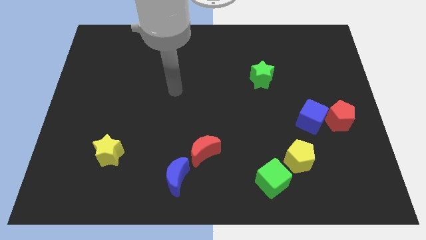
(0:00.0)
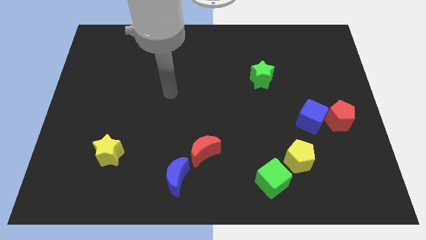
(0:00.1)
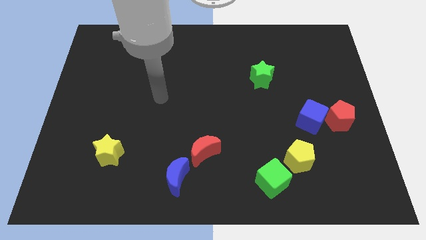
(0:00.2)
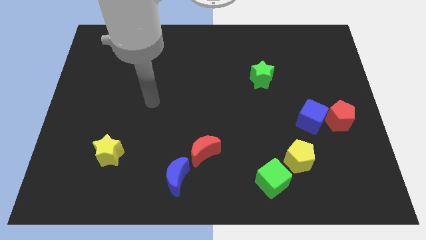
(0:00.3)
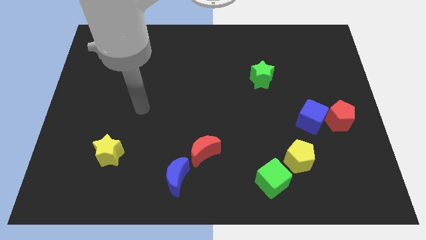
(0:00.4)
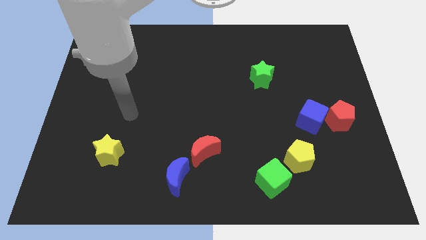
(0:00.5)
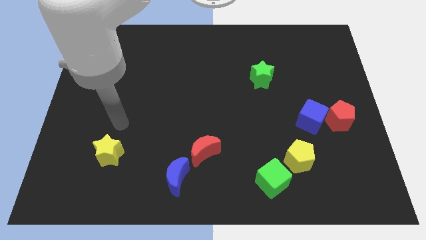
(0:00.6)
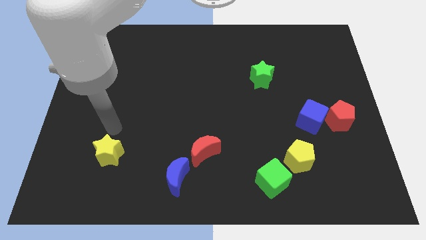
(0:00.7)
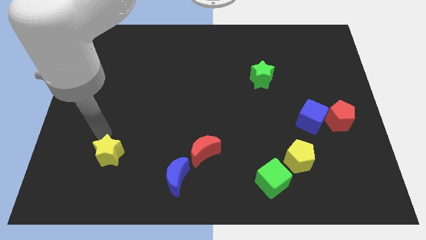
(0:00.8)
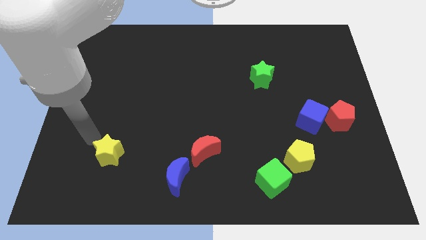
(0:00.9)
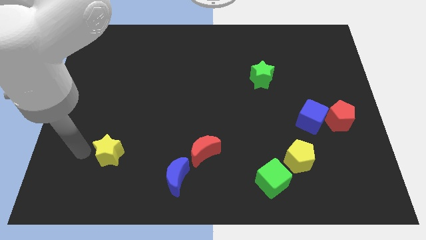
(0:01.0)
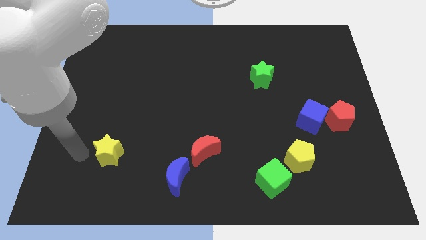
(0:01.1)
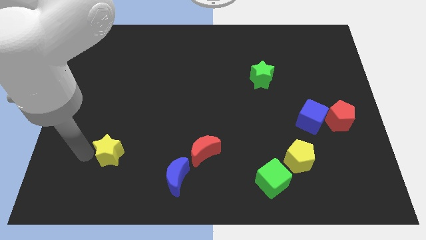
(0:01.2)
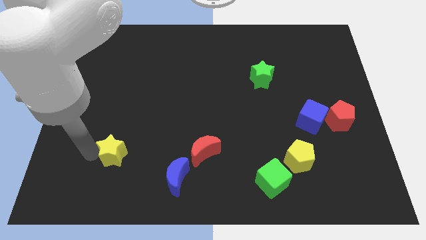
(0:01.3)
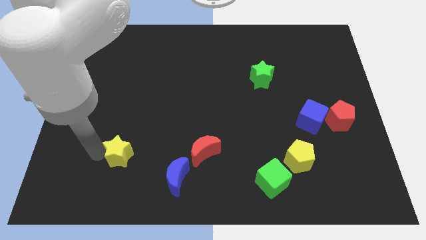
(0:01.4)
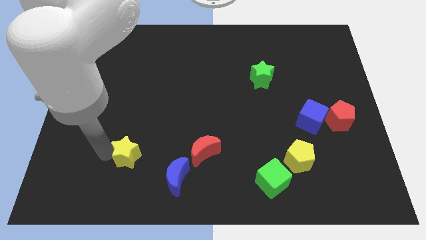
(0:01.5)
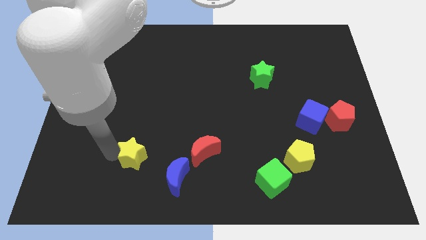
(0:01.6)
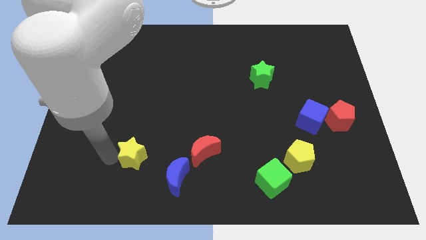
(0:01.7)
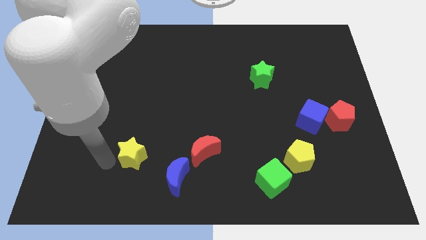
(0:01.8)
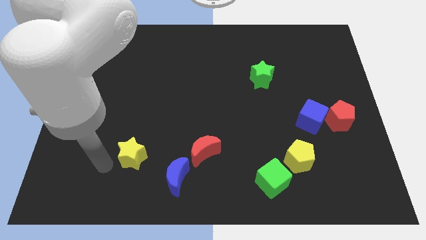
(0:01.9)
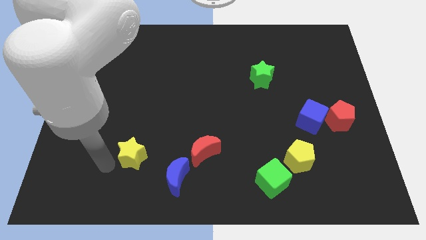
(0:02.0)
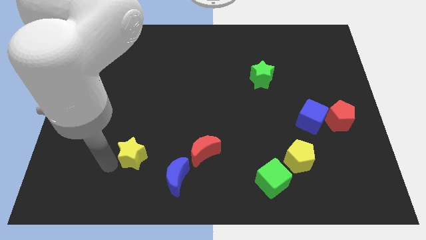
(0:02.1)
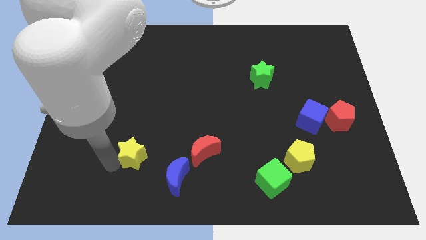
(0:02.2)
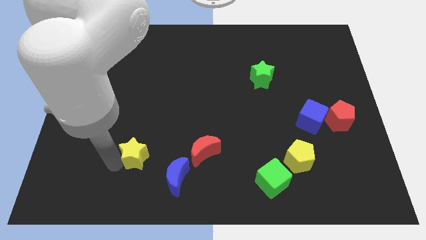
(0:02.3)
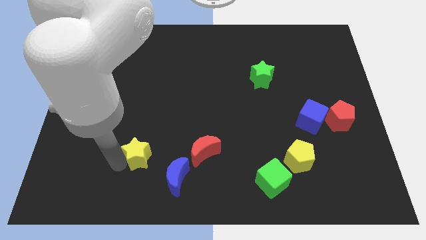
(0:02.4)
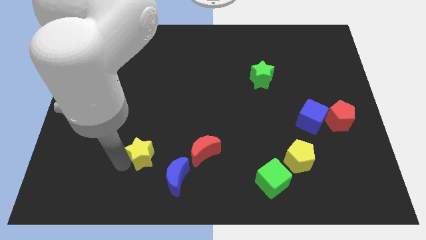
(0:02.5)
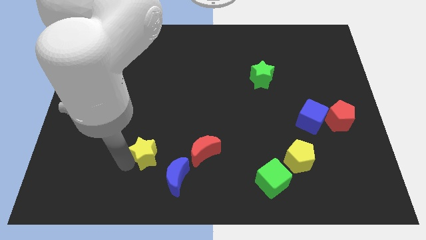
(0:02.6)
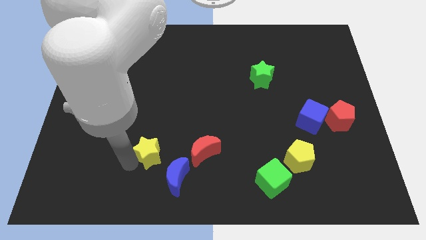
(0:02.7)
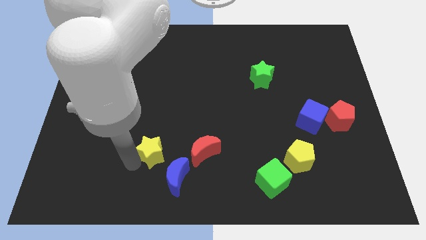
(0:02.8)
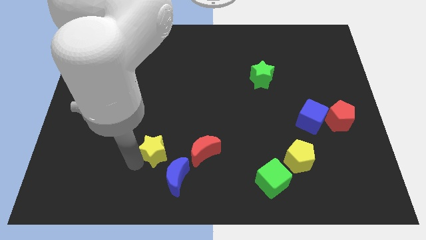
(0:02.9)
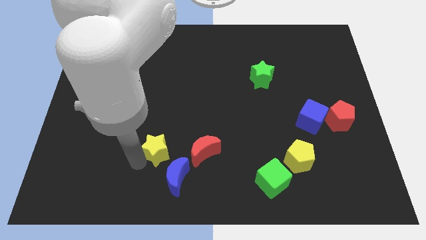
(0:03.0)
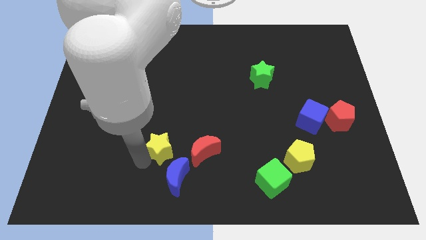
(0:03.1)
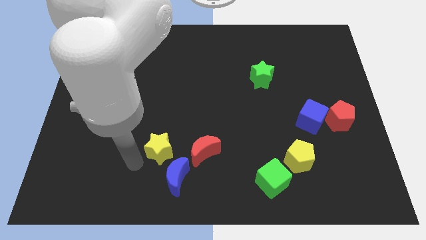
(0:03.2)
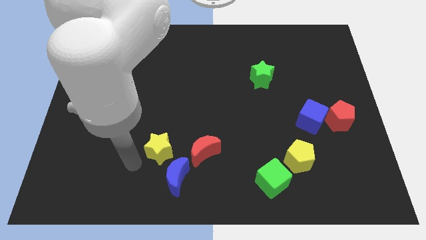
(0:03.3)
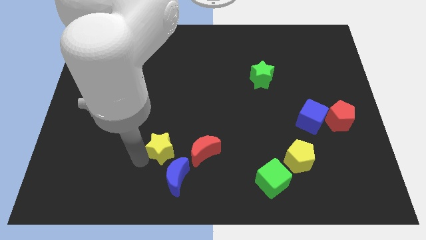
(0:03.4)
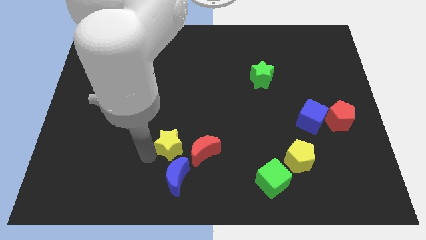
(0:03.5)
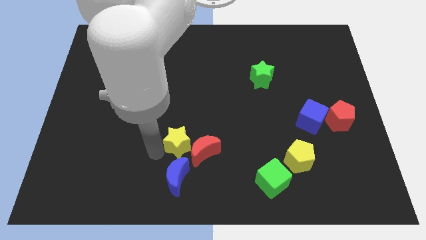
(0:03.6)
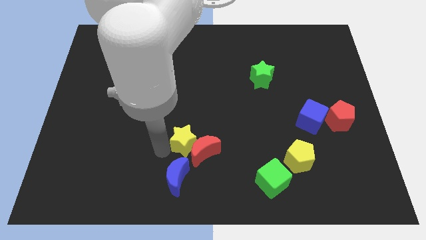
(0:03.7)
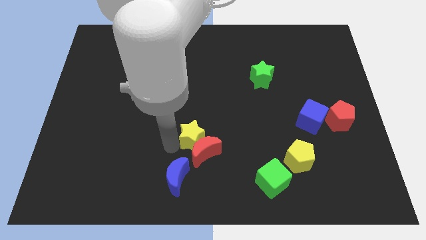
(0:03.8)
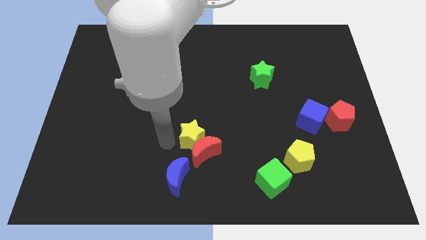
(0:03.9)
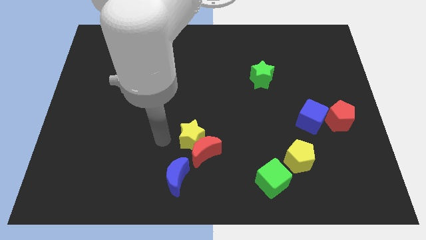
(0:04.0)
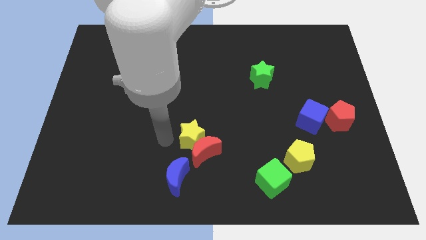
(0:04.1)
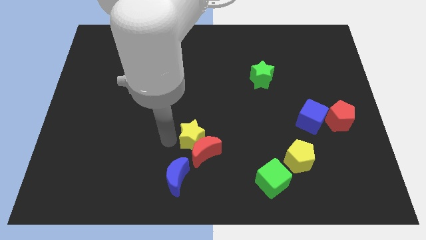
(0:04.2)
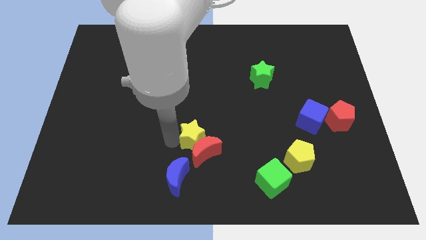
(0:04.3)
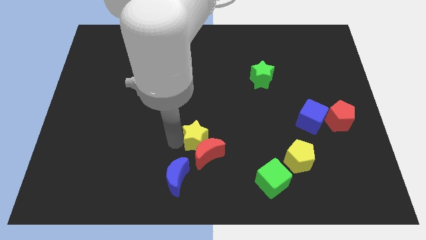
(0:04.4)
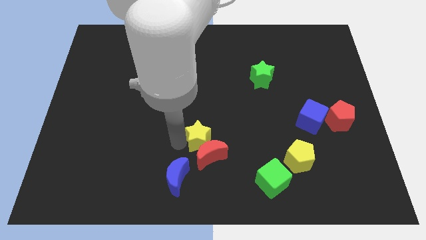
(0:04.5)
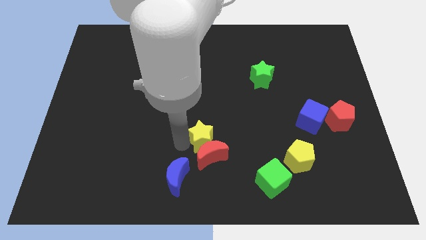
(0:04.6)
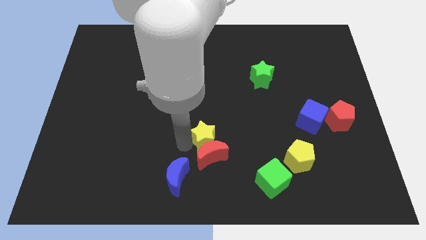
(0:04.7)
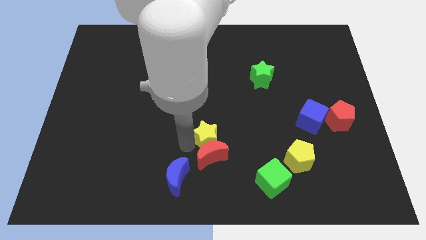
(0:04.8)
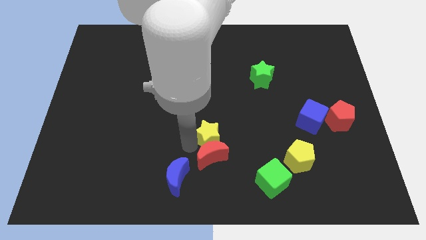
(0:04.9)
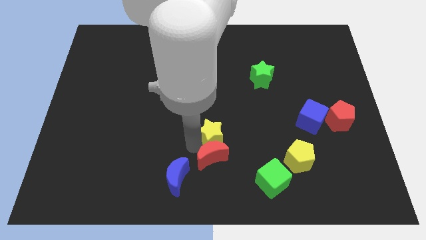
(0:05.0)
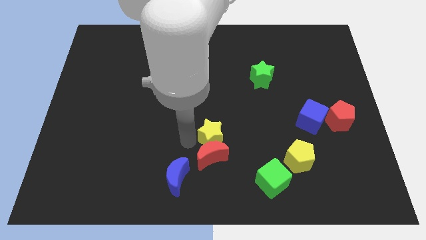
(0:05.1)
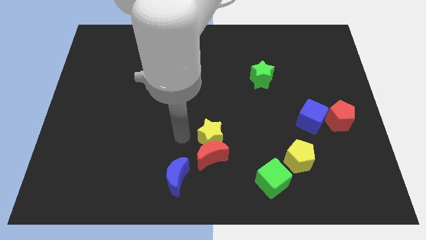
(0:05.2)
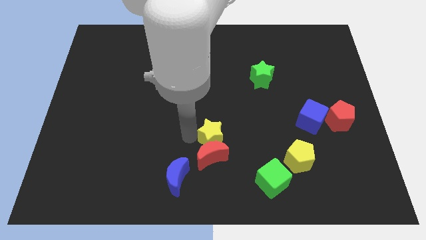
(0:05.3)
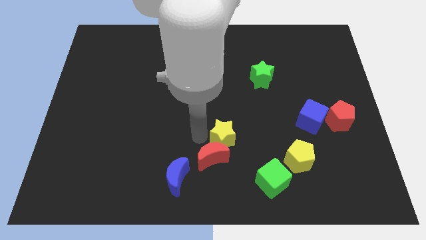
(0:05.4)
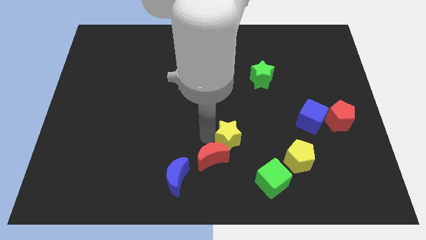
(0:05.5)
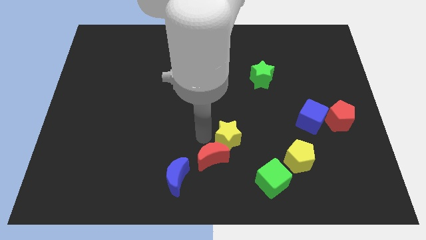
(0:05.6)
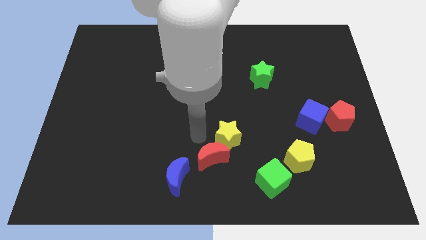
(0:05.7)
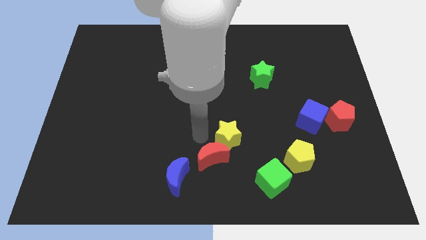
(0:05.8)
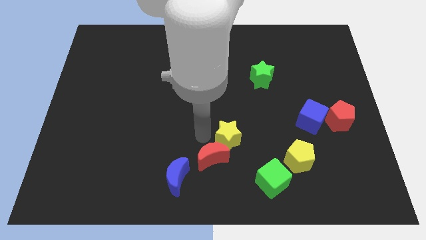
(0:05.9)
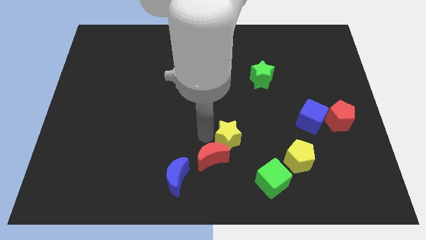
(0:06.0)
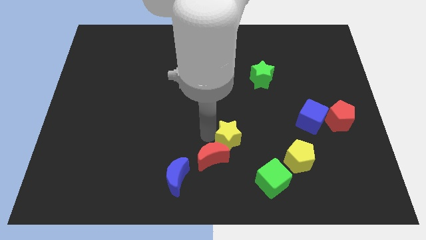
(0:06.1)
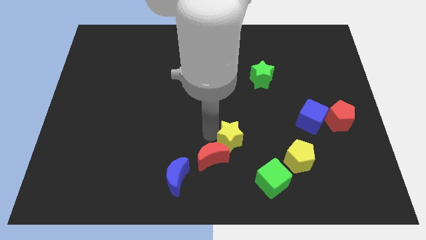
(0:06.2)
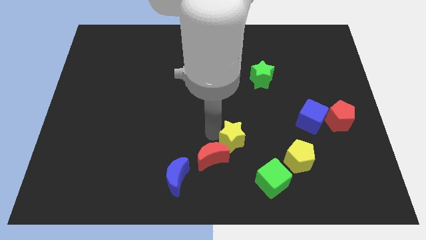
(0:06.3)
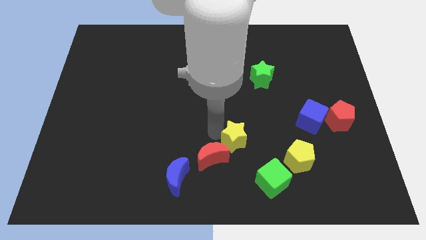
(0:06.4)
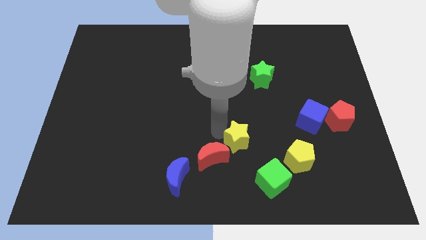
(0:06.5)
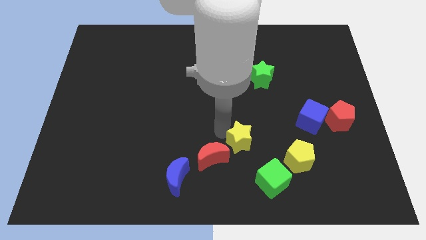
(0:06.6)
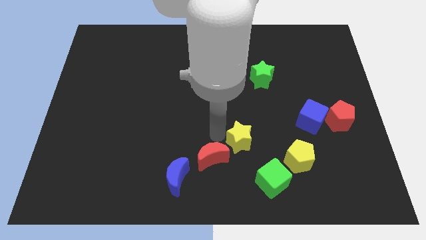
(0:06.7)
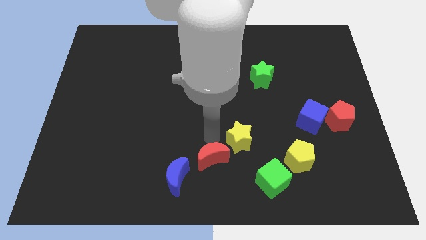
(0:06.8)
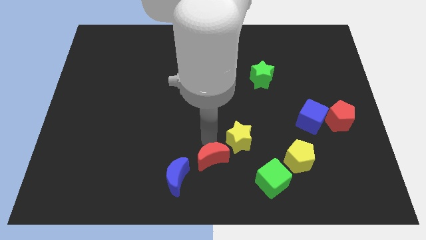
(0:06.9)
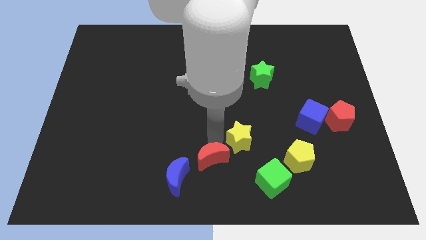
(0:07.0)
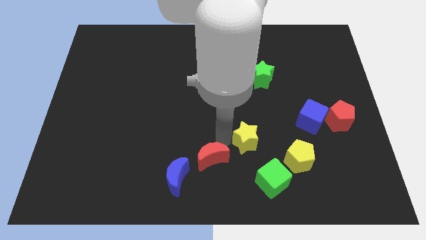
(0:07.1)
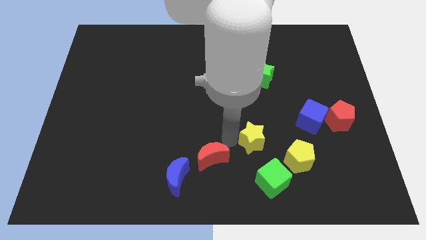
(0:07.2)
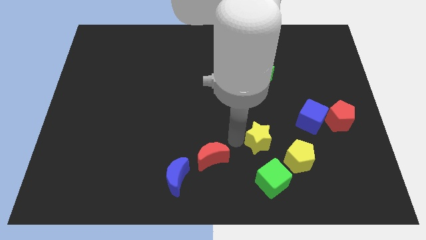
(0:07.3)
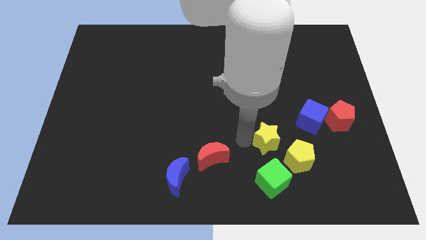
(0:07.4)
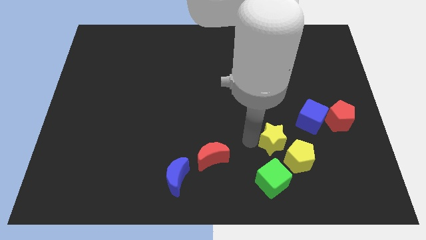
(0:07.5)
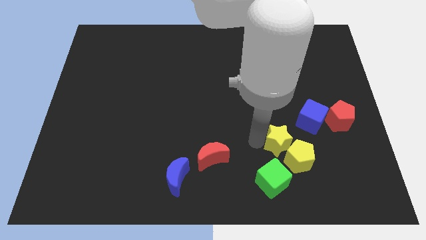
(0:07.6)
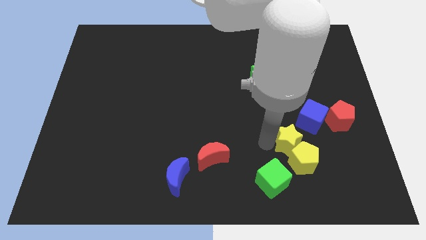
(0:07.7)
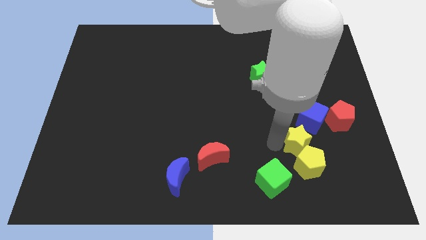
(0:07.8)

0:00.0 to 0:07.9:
push the yellow star to the bottom of the blue cube
